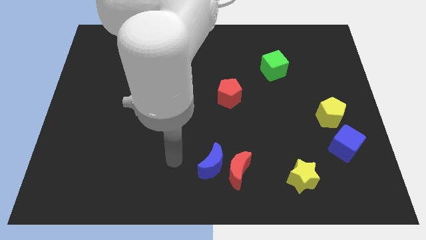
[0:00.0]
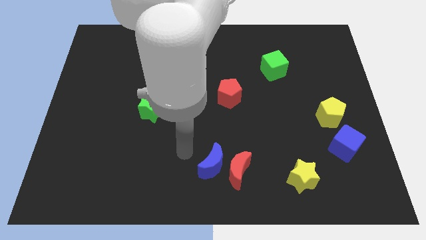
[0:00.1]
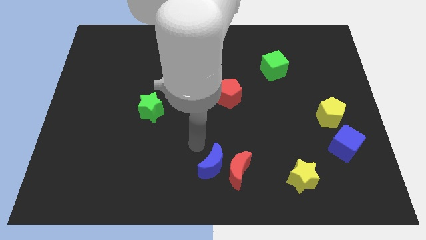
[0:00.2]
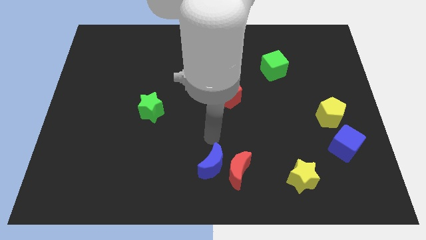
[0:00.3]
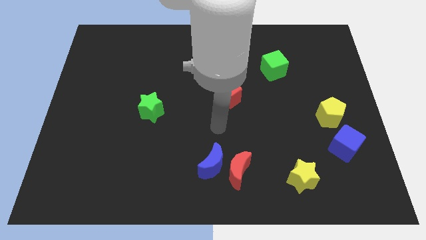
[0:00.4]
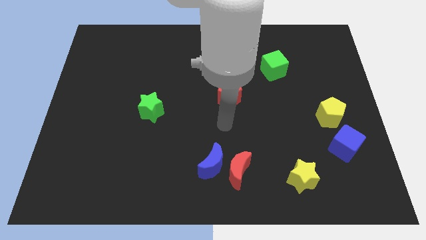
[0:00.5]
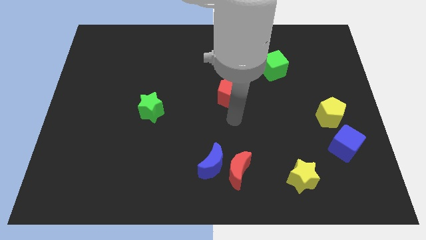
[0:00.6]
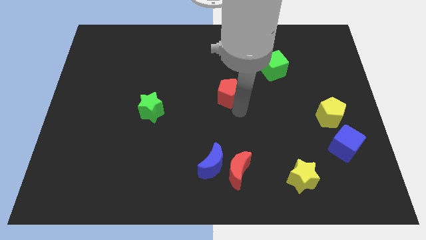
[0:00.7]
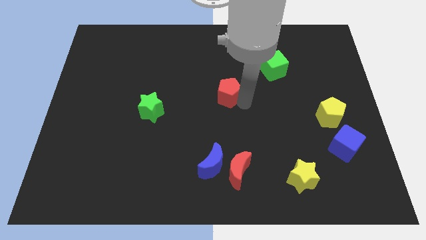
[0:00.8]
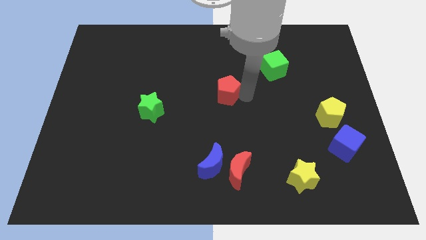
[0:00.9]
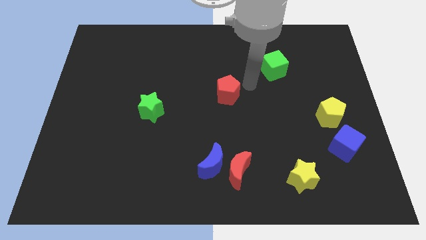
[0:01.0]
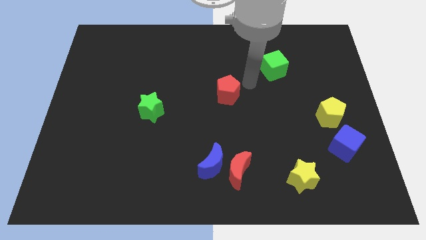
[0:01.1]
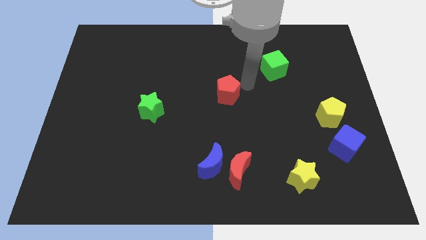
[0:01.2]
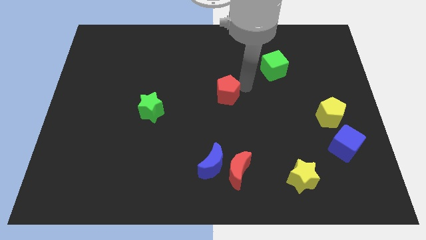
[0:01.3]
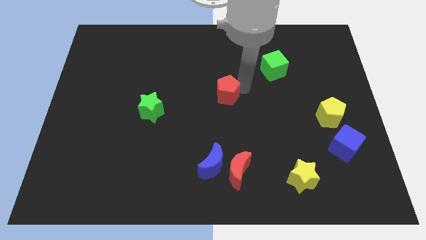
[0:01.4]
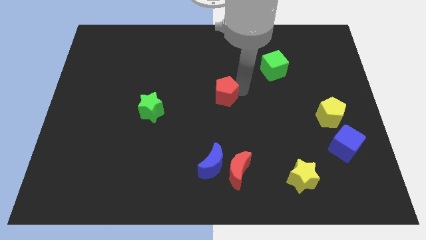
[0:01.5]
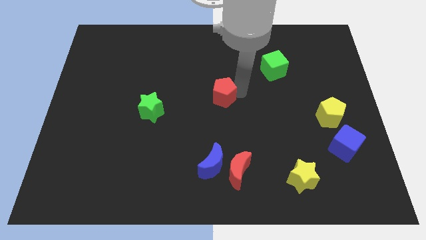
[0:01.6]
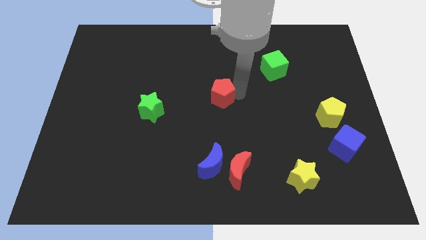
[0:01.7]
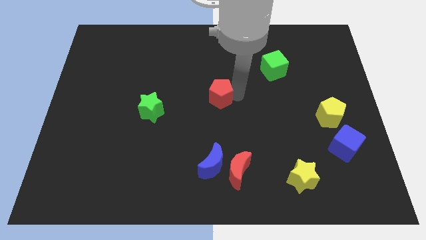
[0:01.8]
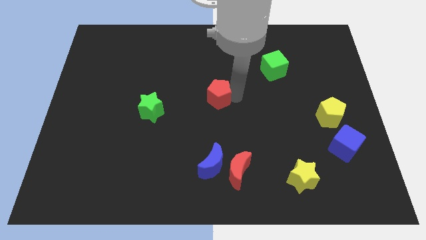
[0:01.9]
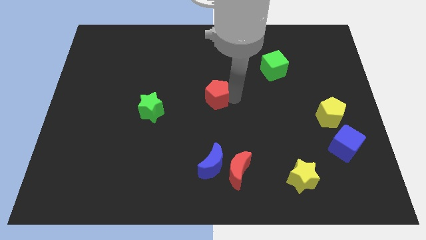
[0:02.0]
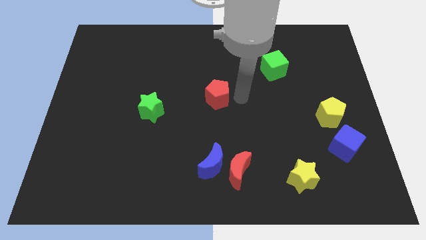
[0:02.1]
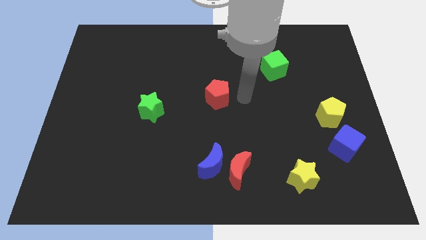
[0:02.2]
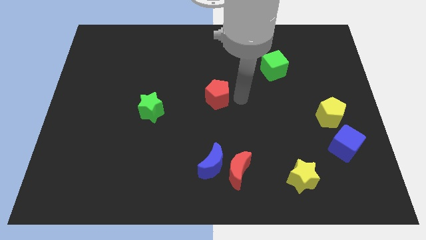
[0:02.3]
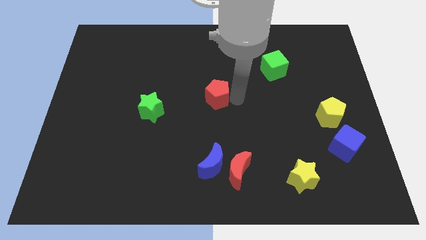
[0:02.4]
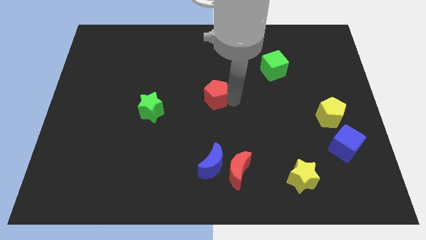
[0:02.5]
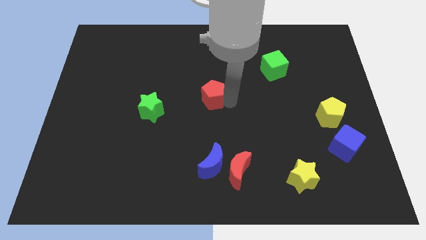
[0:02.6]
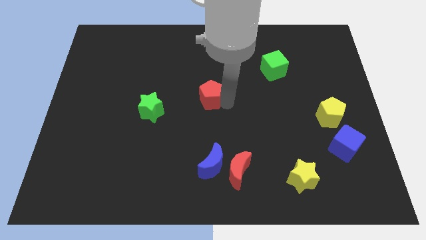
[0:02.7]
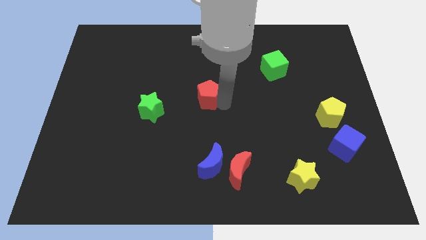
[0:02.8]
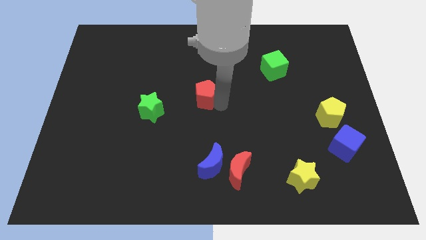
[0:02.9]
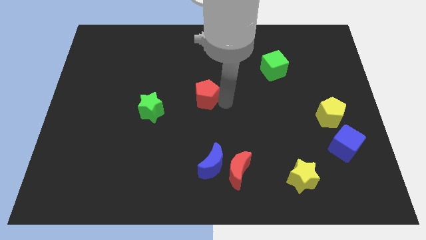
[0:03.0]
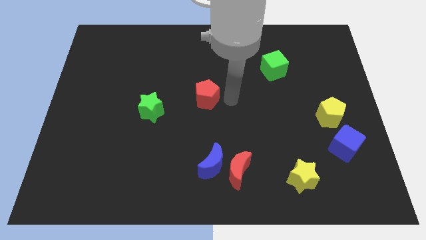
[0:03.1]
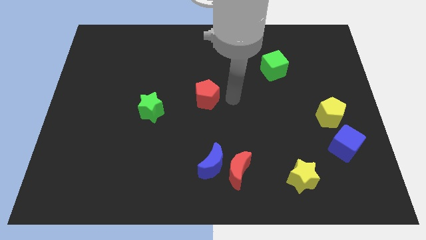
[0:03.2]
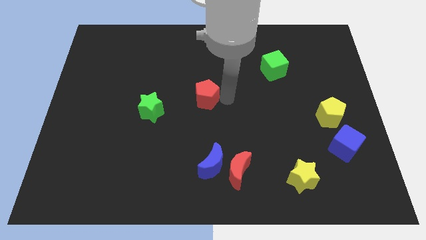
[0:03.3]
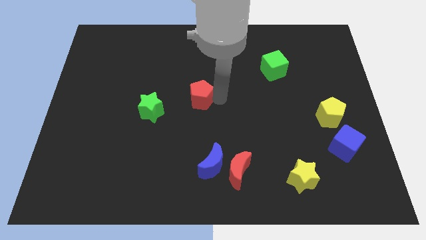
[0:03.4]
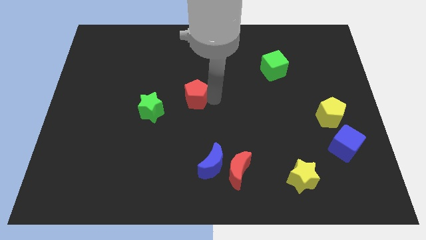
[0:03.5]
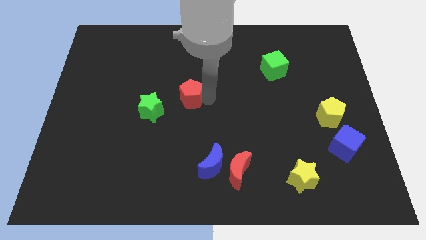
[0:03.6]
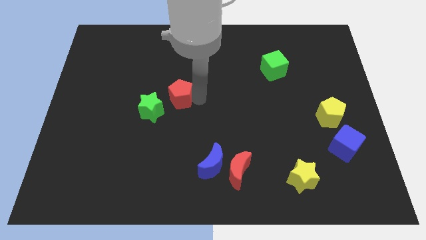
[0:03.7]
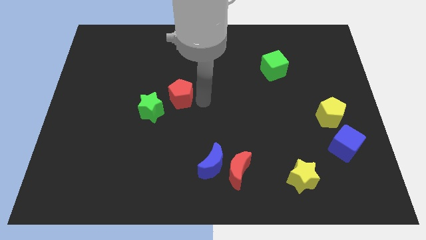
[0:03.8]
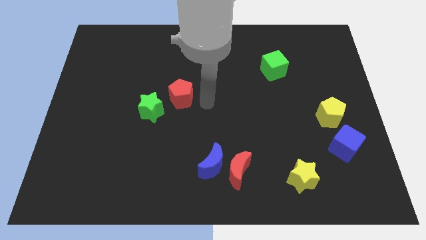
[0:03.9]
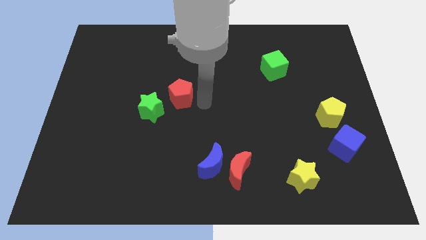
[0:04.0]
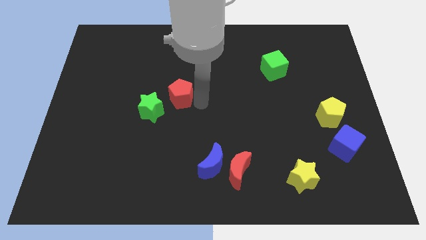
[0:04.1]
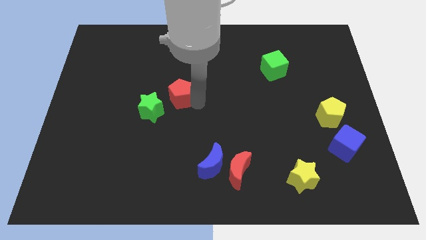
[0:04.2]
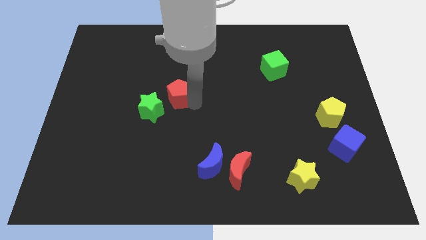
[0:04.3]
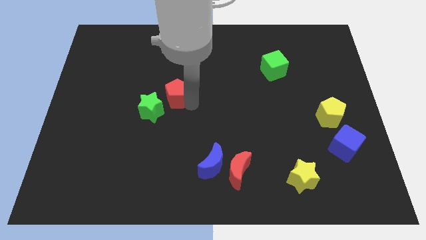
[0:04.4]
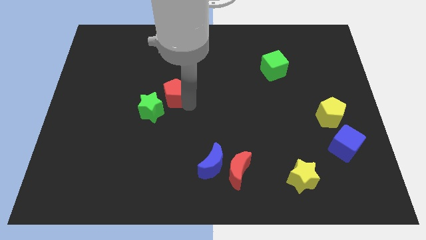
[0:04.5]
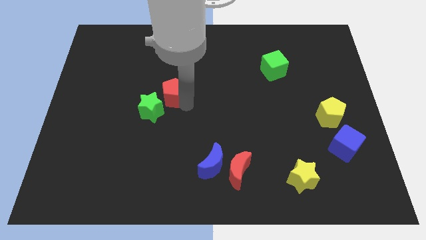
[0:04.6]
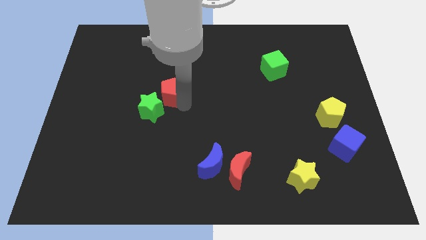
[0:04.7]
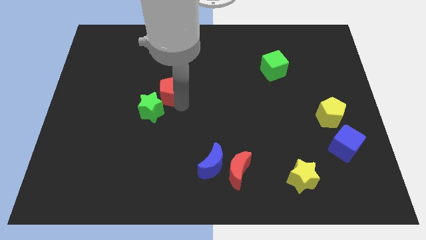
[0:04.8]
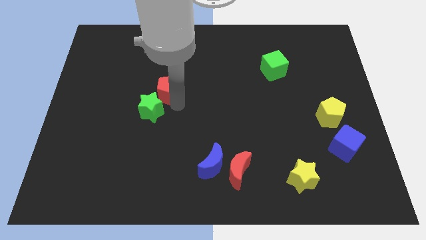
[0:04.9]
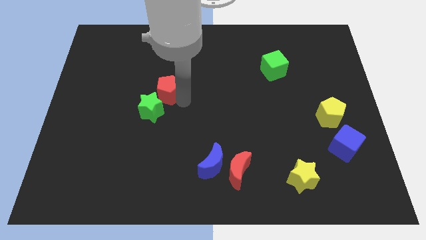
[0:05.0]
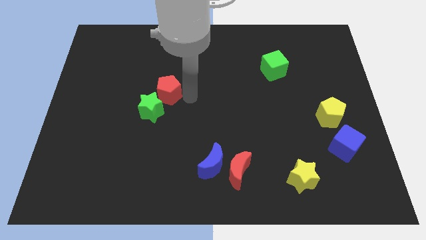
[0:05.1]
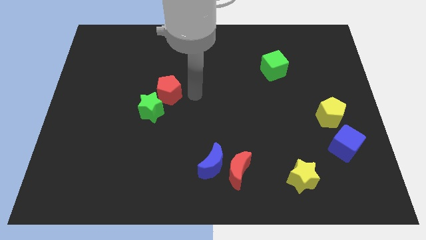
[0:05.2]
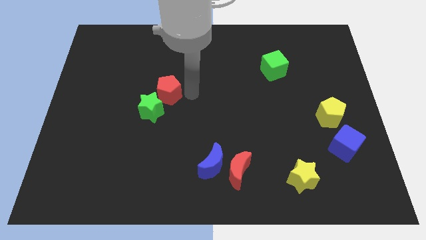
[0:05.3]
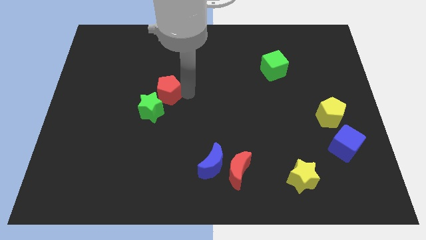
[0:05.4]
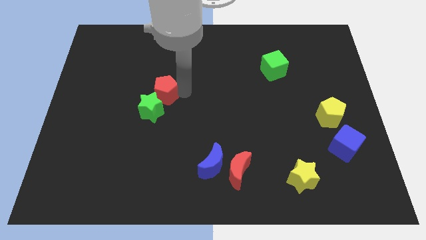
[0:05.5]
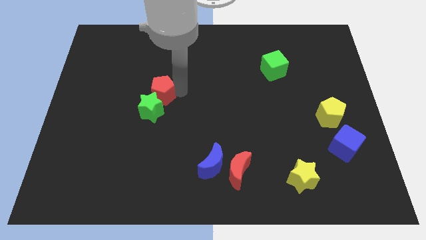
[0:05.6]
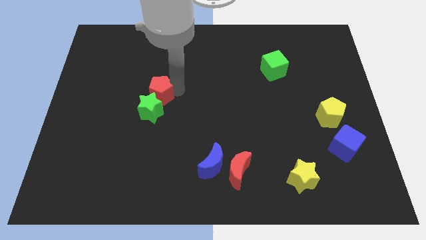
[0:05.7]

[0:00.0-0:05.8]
move the red pentagon diagonally up and to the left of the green star

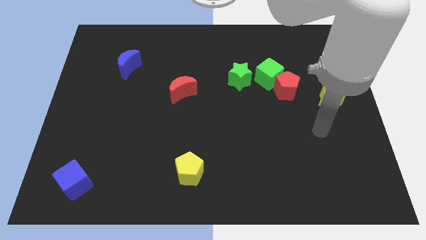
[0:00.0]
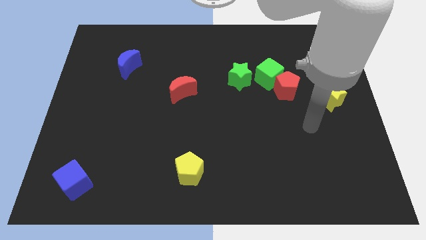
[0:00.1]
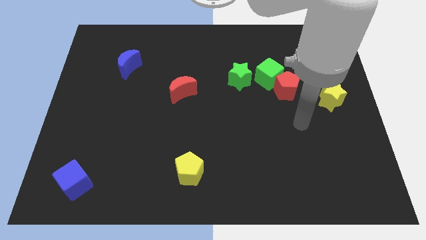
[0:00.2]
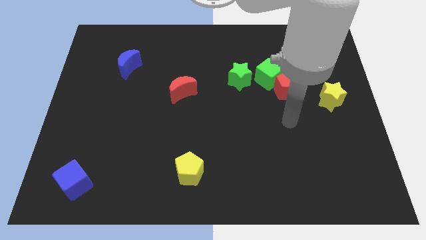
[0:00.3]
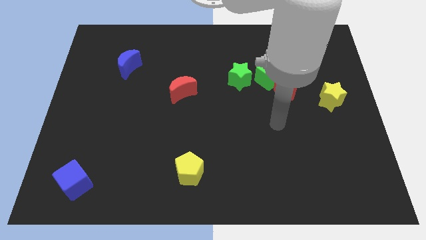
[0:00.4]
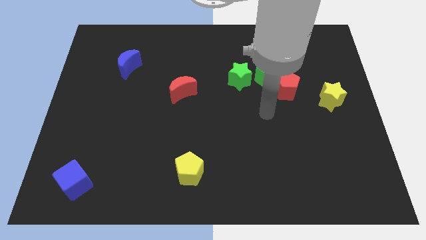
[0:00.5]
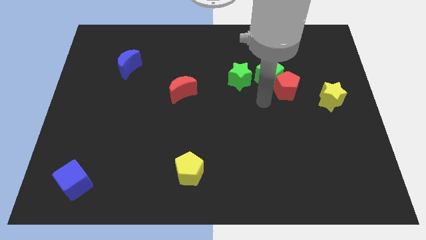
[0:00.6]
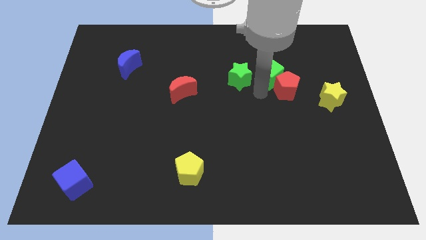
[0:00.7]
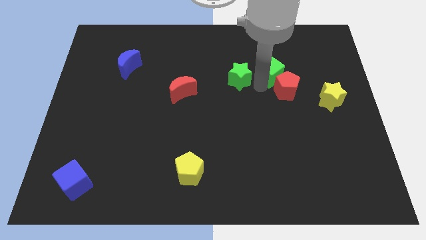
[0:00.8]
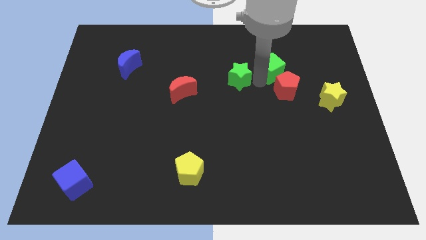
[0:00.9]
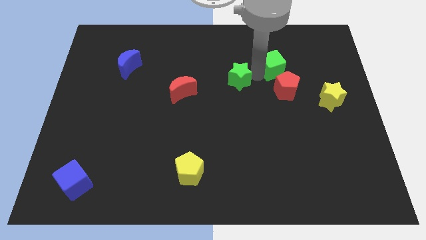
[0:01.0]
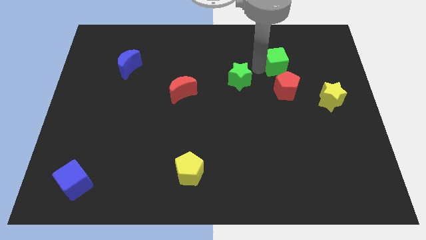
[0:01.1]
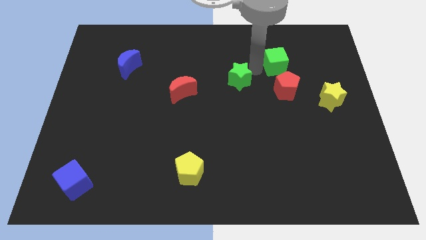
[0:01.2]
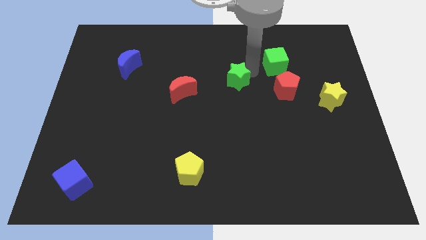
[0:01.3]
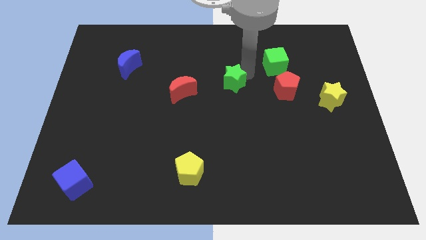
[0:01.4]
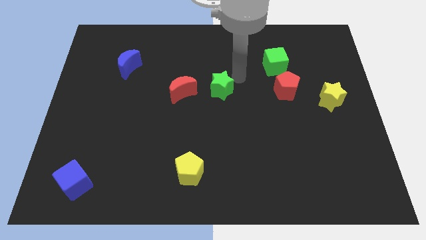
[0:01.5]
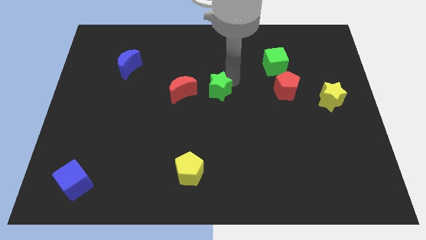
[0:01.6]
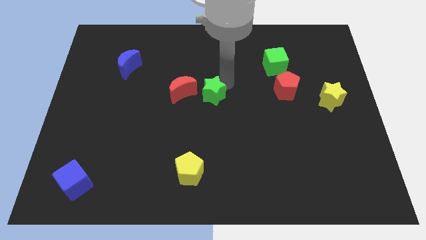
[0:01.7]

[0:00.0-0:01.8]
put the green star to the bottom right of the red moon
